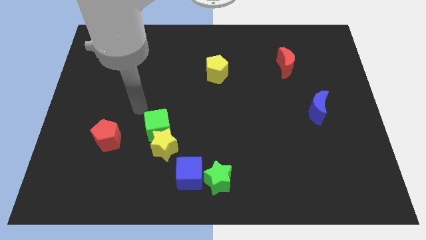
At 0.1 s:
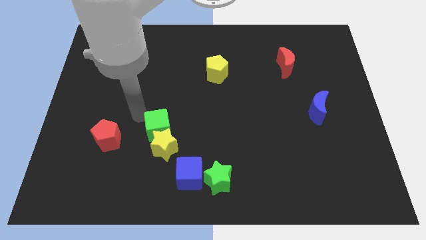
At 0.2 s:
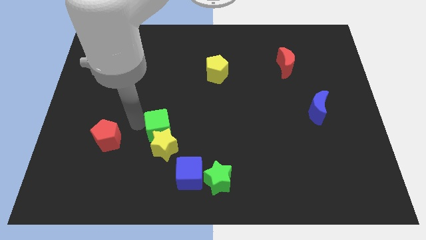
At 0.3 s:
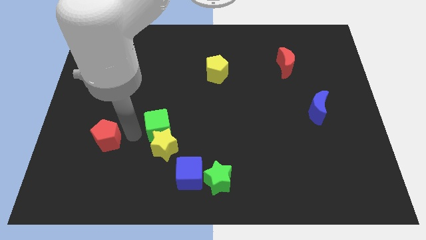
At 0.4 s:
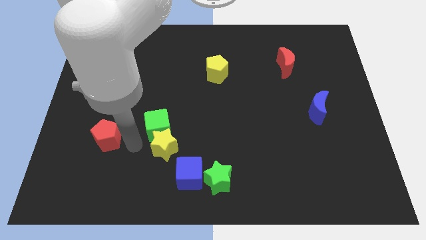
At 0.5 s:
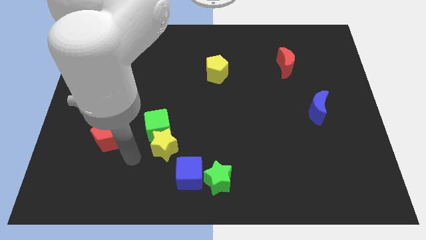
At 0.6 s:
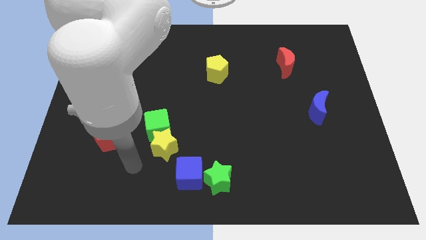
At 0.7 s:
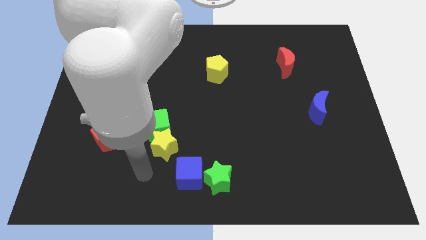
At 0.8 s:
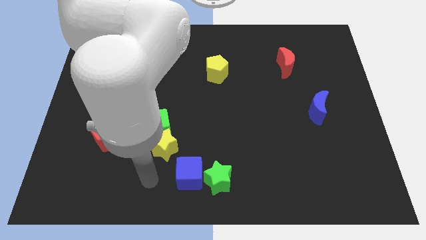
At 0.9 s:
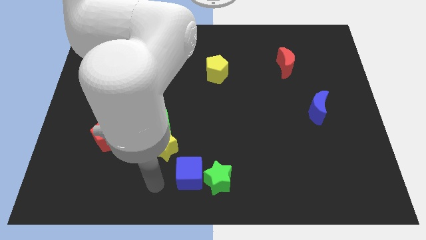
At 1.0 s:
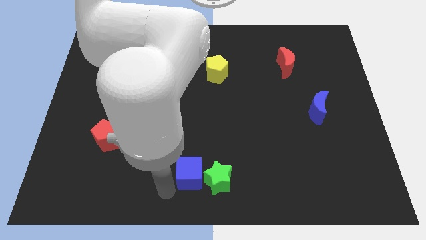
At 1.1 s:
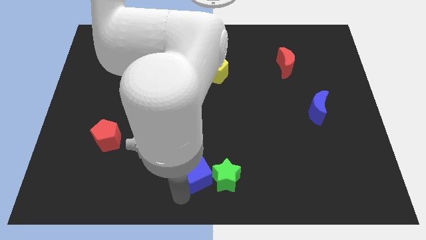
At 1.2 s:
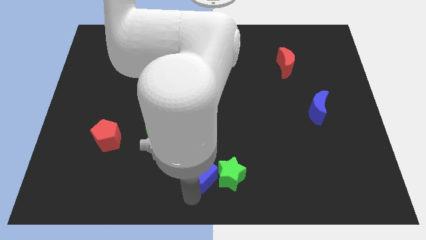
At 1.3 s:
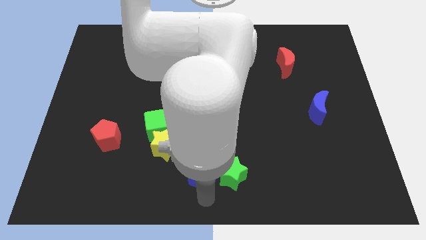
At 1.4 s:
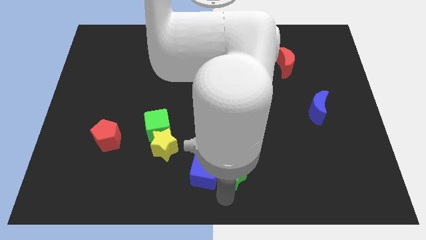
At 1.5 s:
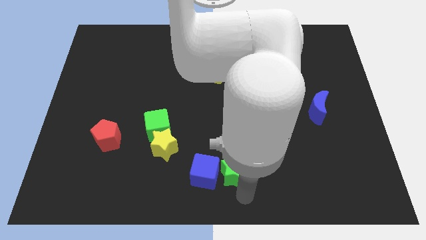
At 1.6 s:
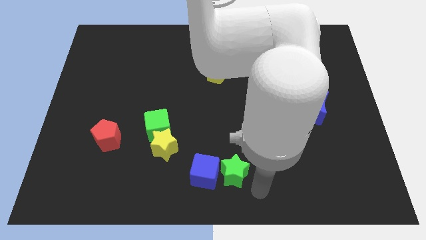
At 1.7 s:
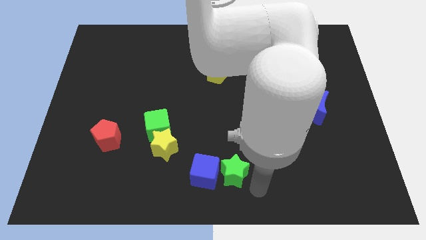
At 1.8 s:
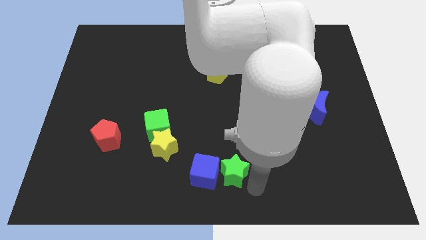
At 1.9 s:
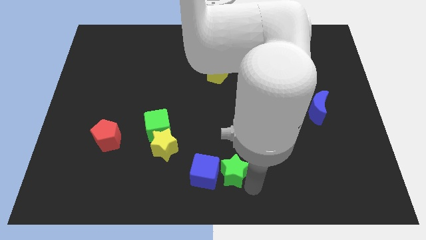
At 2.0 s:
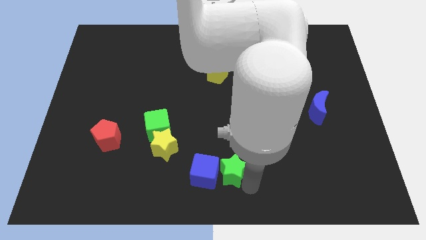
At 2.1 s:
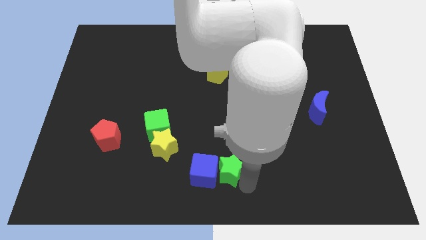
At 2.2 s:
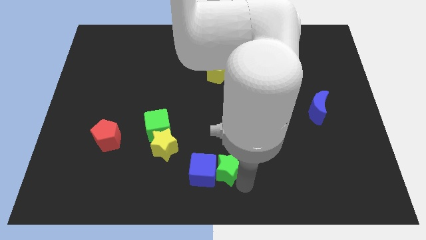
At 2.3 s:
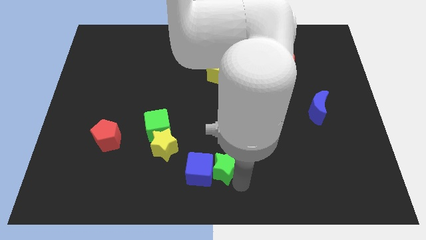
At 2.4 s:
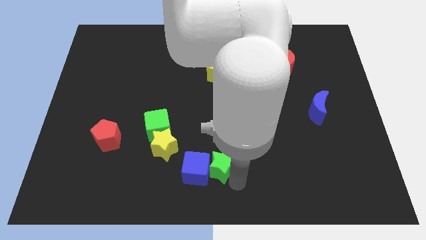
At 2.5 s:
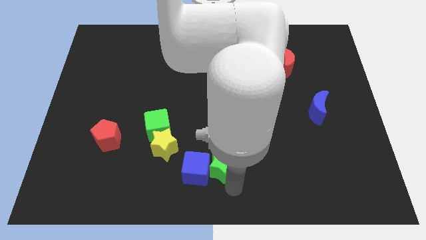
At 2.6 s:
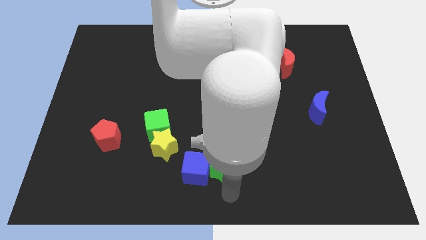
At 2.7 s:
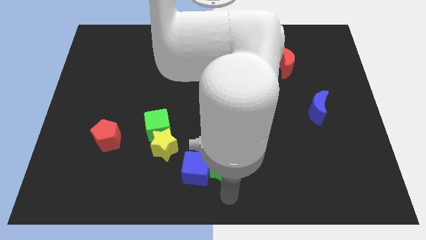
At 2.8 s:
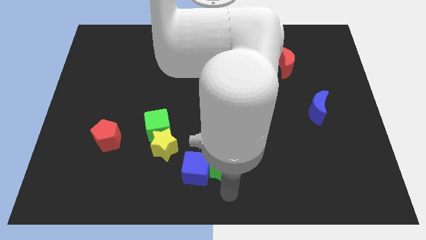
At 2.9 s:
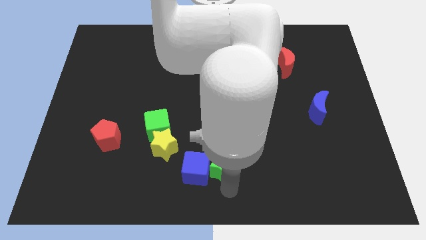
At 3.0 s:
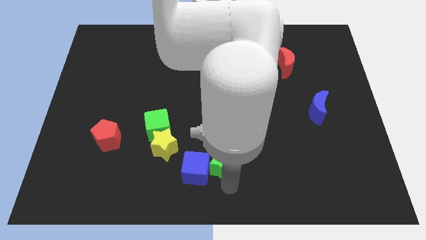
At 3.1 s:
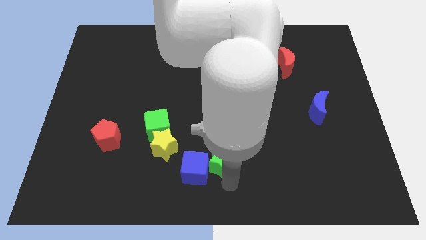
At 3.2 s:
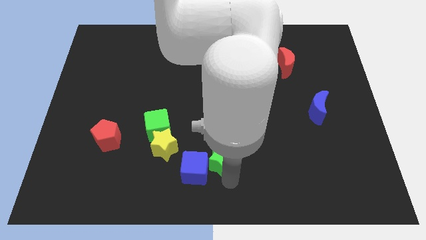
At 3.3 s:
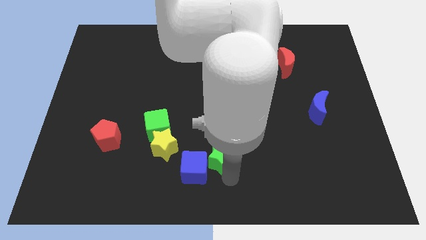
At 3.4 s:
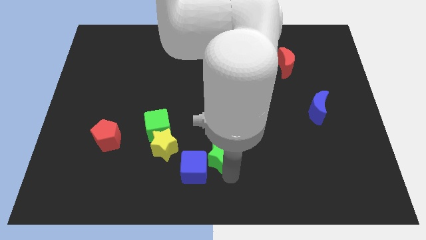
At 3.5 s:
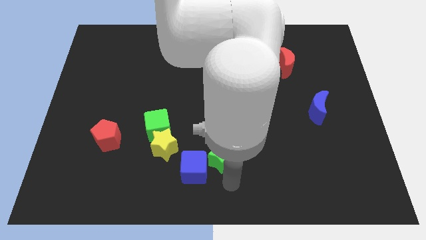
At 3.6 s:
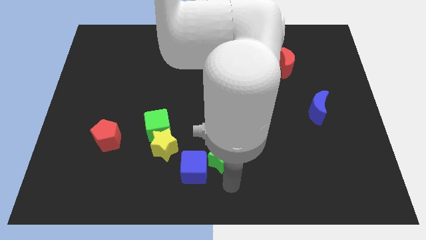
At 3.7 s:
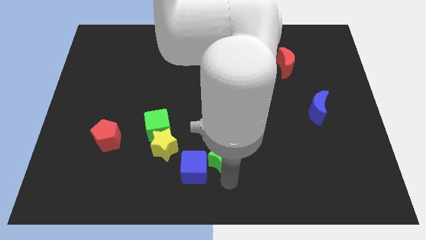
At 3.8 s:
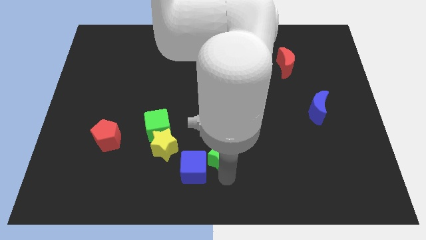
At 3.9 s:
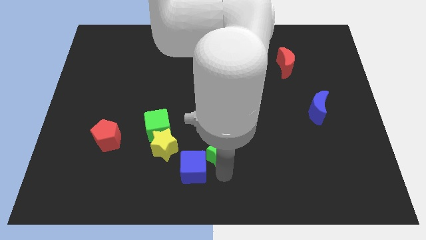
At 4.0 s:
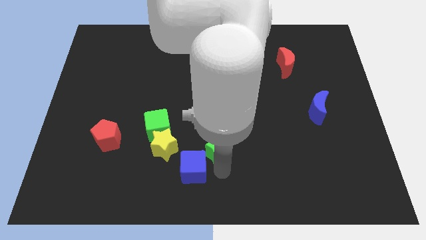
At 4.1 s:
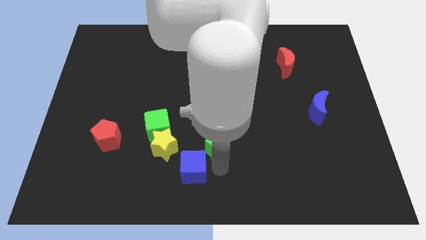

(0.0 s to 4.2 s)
slightly move the green star upwards

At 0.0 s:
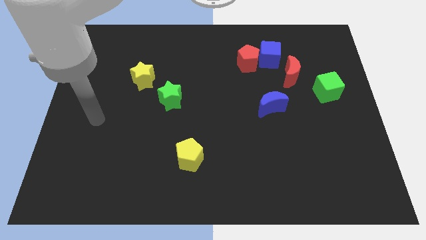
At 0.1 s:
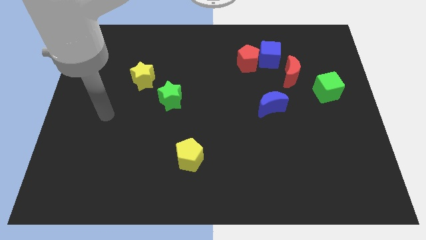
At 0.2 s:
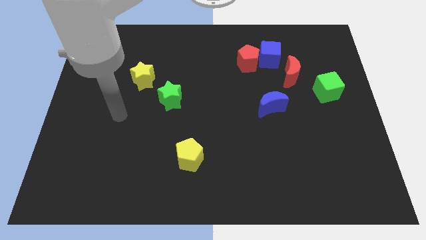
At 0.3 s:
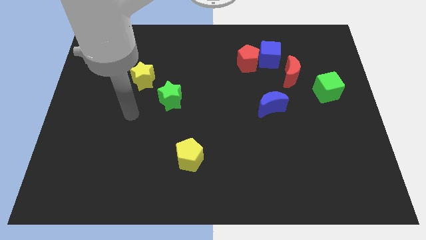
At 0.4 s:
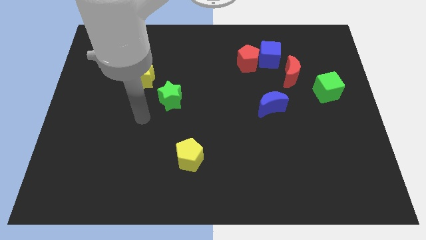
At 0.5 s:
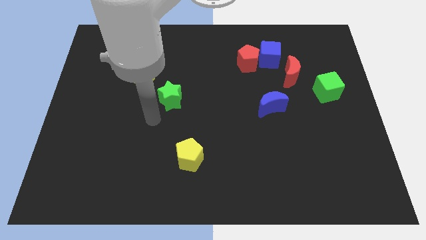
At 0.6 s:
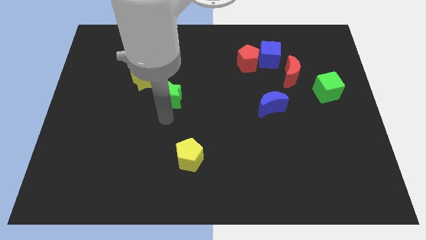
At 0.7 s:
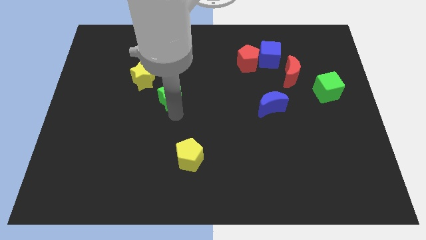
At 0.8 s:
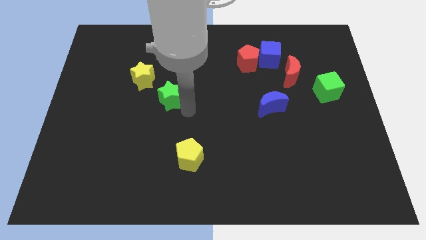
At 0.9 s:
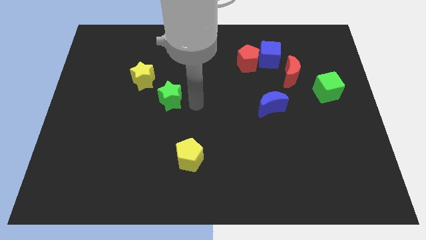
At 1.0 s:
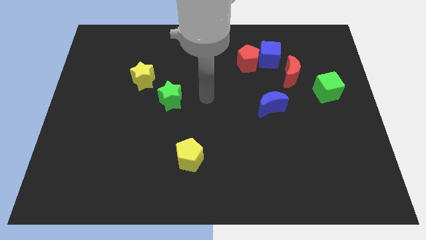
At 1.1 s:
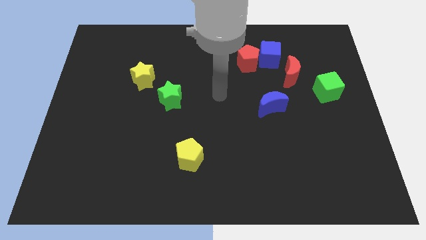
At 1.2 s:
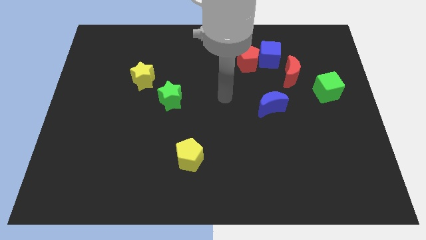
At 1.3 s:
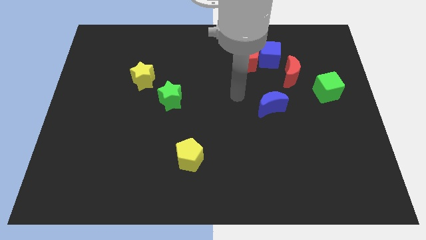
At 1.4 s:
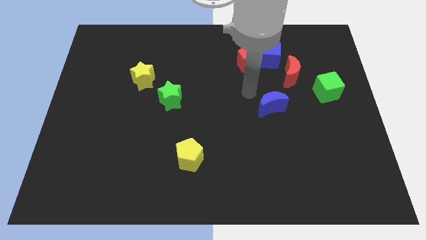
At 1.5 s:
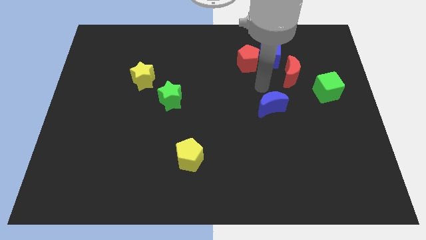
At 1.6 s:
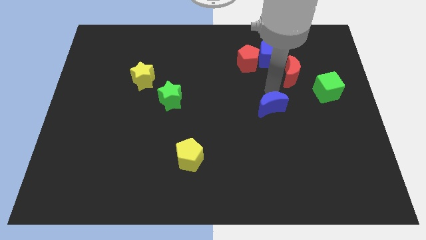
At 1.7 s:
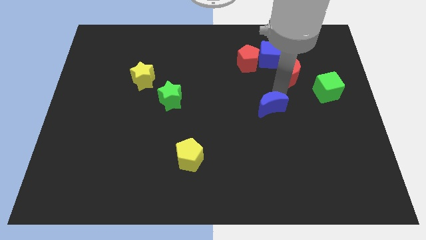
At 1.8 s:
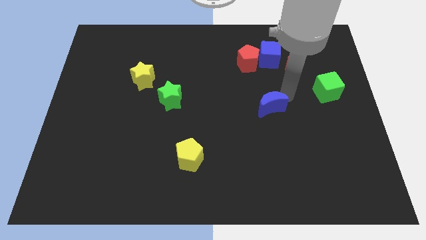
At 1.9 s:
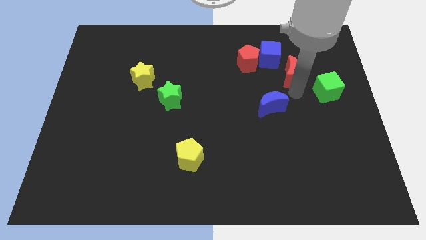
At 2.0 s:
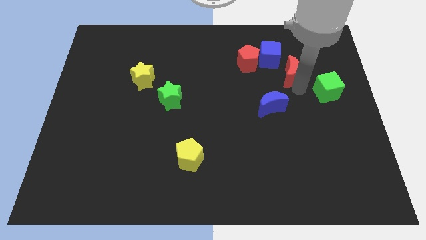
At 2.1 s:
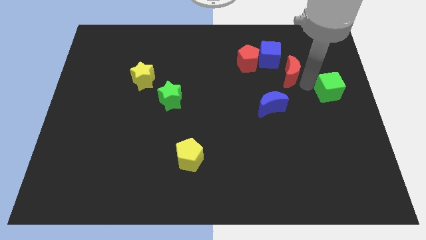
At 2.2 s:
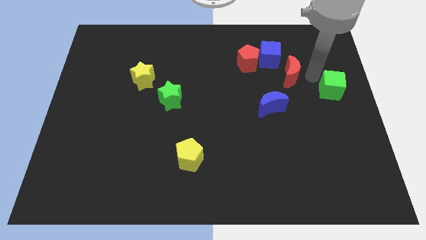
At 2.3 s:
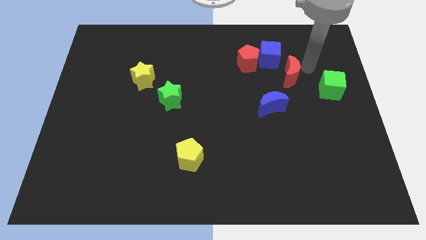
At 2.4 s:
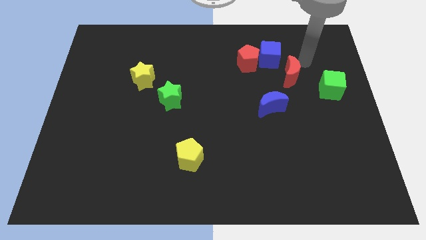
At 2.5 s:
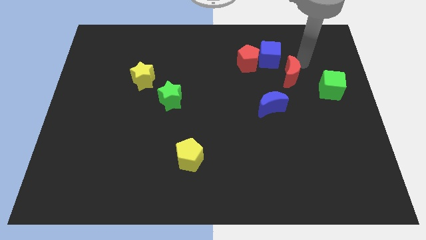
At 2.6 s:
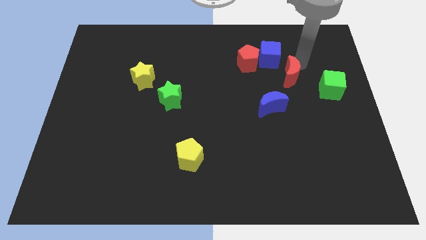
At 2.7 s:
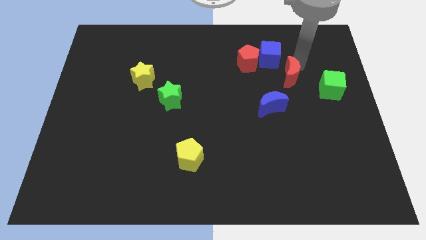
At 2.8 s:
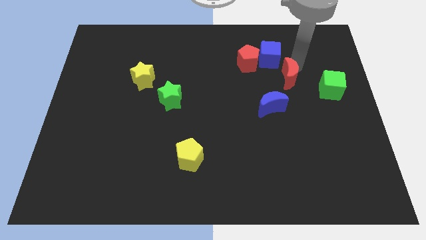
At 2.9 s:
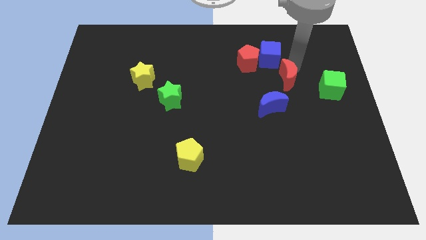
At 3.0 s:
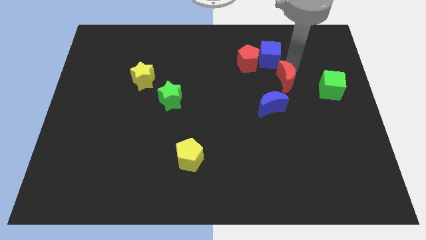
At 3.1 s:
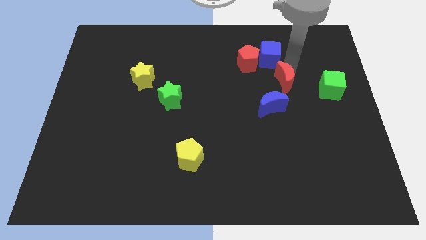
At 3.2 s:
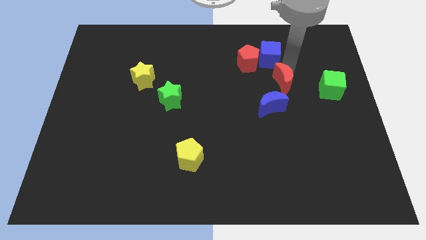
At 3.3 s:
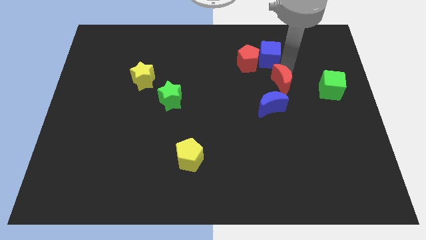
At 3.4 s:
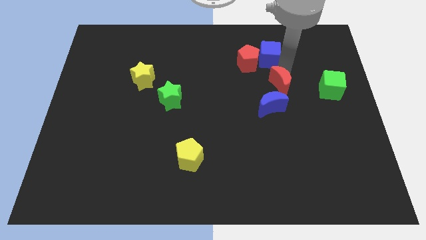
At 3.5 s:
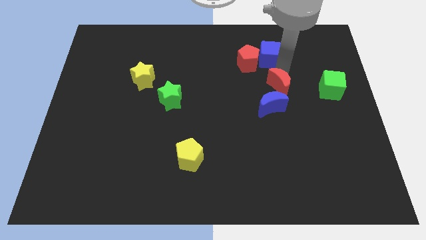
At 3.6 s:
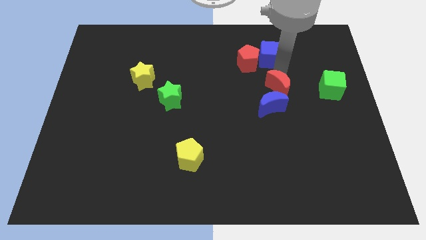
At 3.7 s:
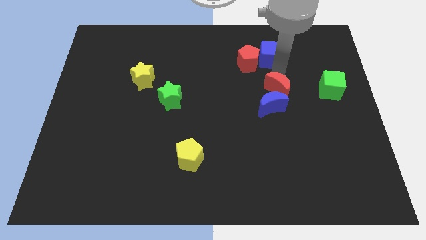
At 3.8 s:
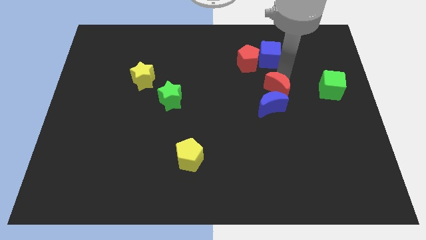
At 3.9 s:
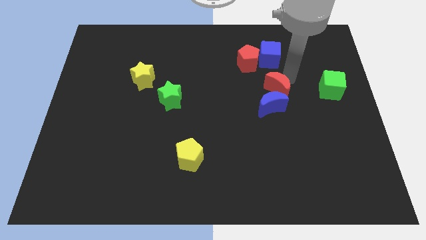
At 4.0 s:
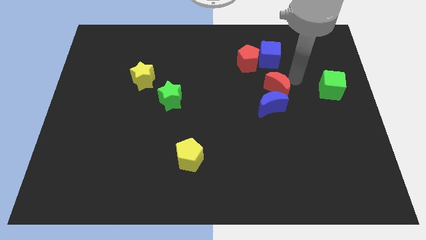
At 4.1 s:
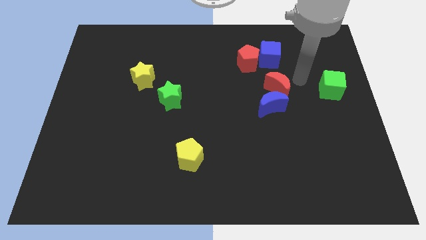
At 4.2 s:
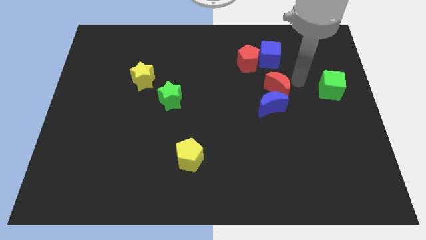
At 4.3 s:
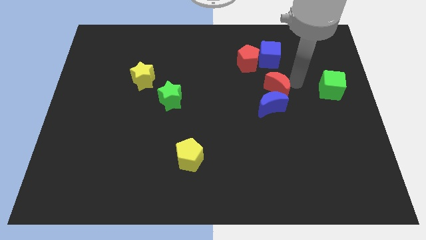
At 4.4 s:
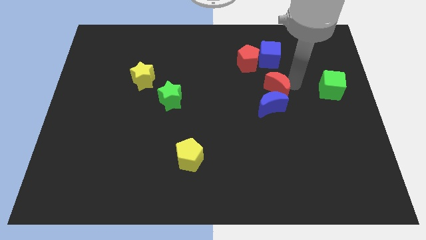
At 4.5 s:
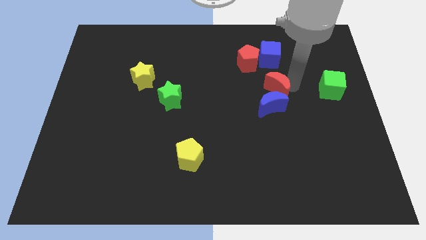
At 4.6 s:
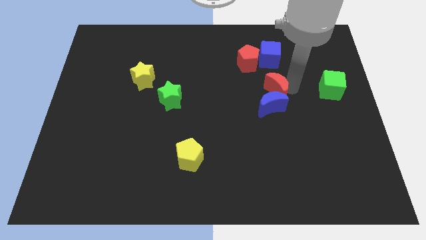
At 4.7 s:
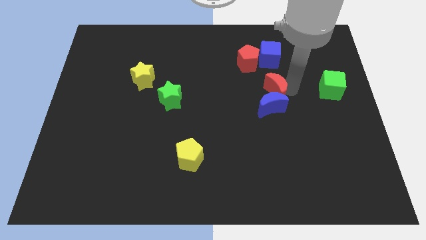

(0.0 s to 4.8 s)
slightly move the red moon down and left
